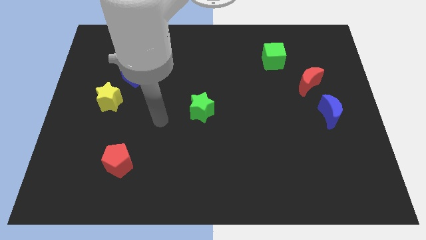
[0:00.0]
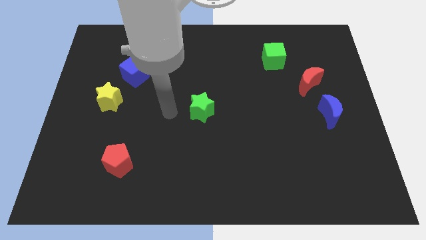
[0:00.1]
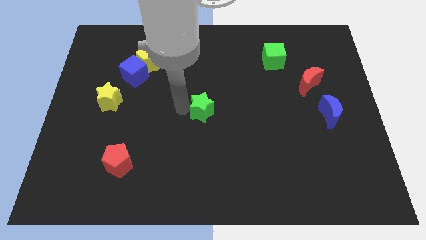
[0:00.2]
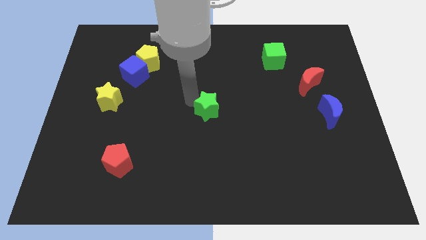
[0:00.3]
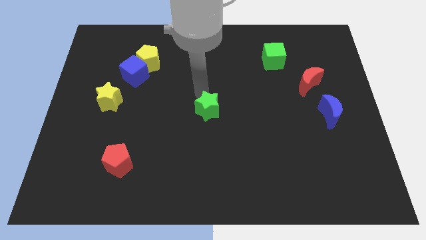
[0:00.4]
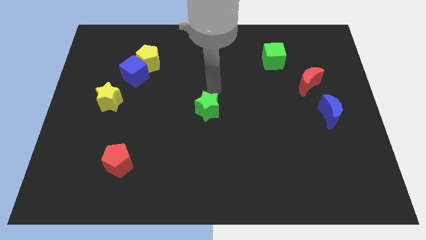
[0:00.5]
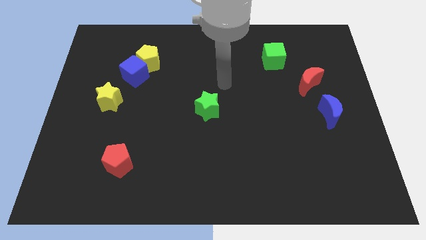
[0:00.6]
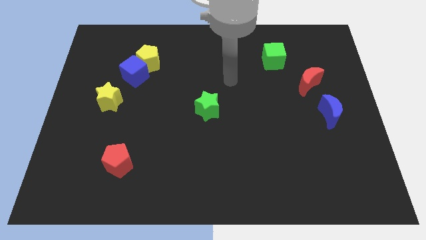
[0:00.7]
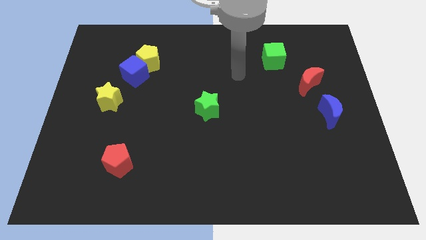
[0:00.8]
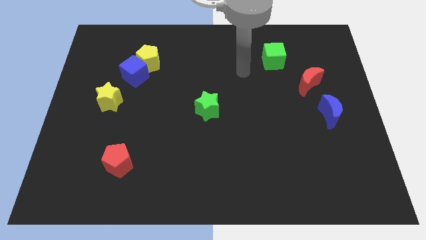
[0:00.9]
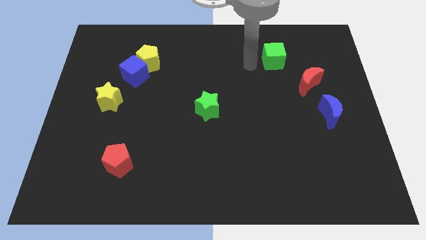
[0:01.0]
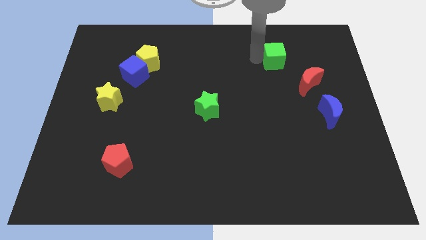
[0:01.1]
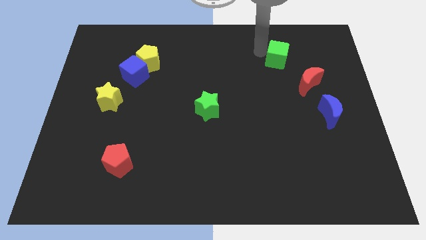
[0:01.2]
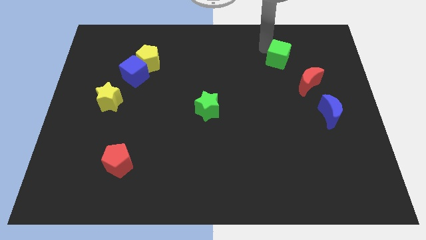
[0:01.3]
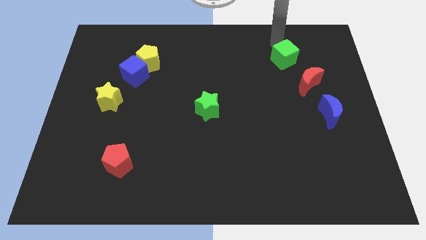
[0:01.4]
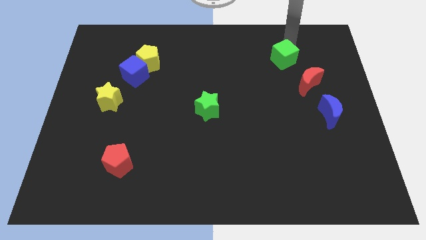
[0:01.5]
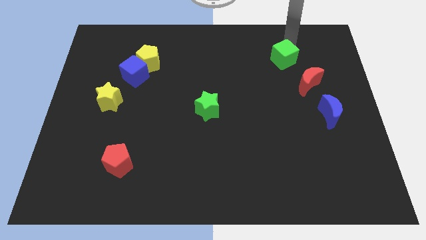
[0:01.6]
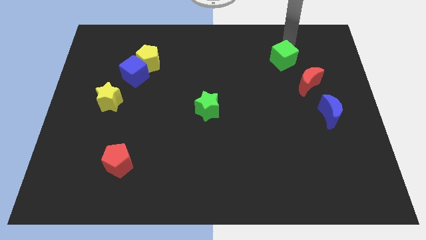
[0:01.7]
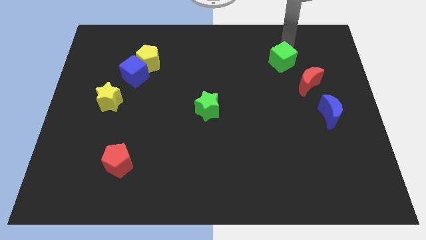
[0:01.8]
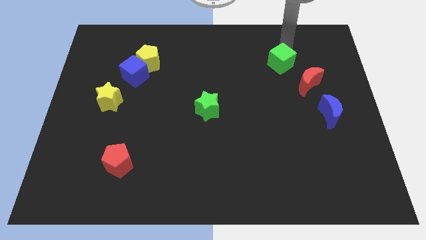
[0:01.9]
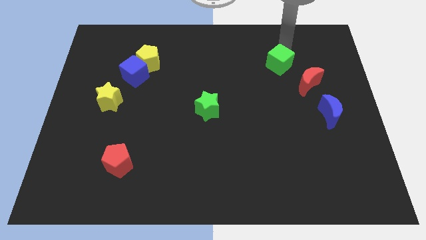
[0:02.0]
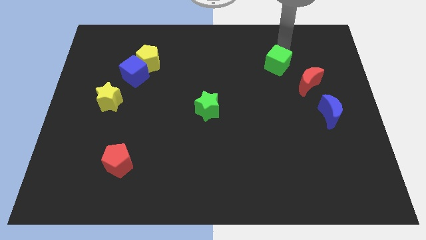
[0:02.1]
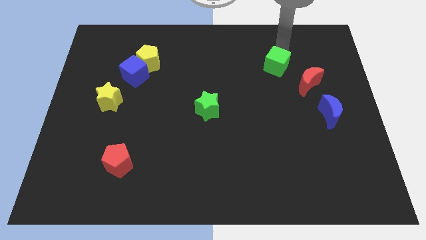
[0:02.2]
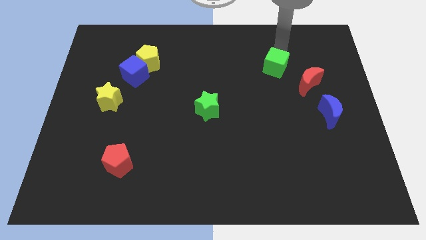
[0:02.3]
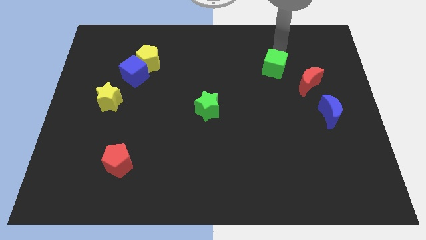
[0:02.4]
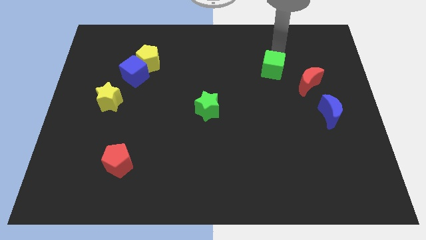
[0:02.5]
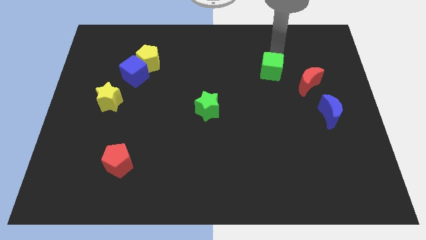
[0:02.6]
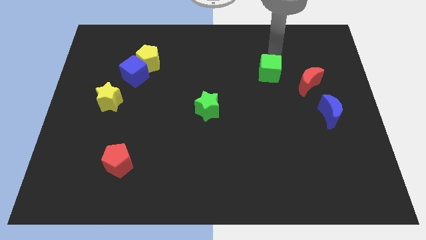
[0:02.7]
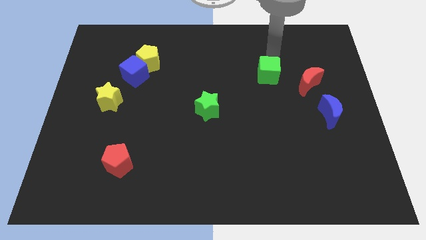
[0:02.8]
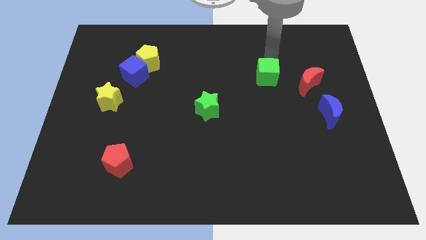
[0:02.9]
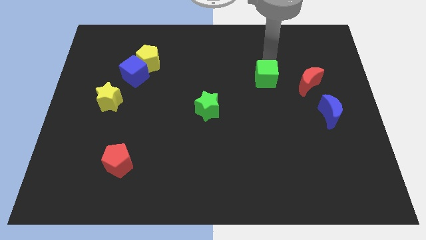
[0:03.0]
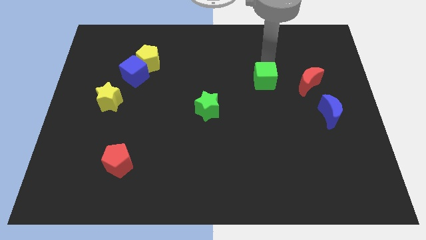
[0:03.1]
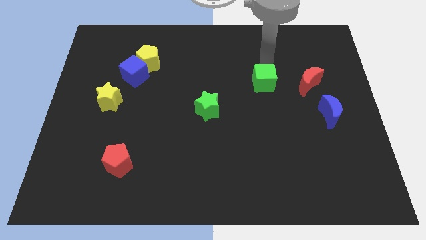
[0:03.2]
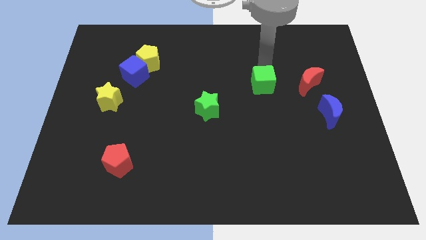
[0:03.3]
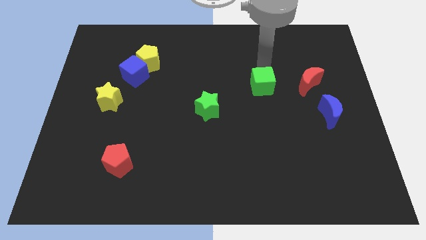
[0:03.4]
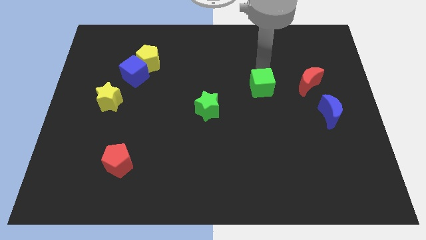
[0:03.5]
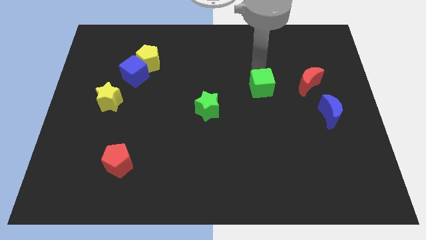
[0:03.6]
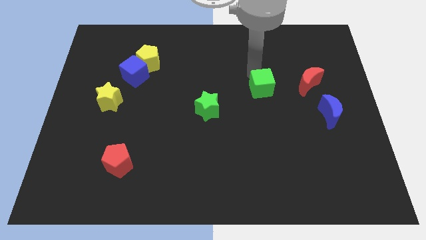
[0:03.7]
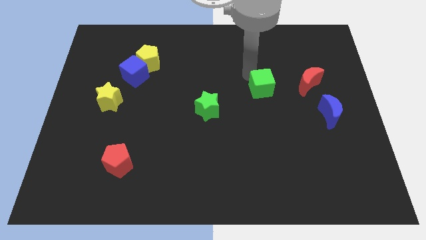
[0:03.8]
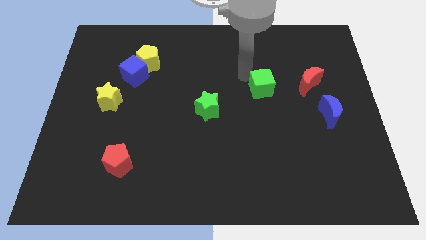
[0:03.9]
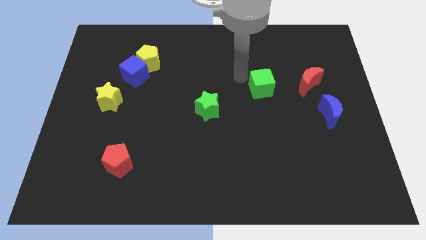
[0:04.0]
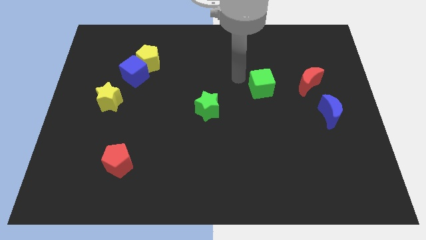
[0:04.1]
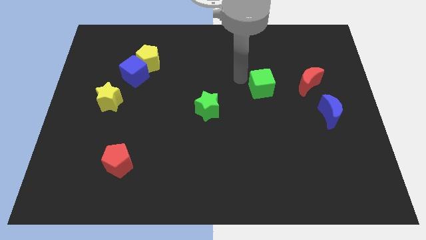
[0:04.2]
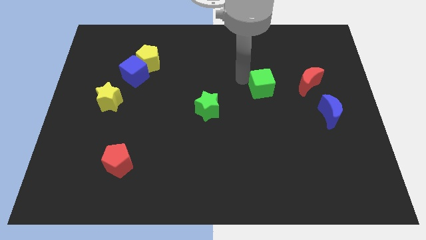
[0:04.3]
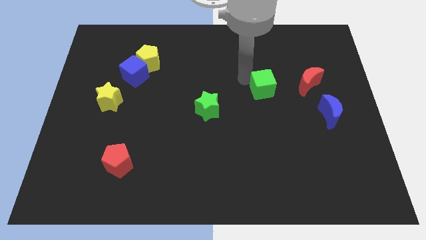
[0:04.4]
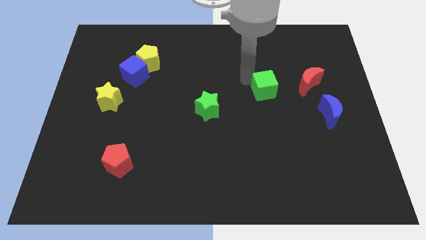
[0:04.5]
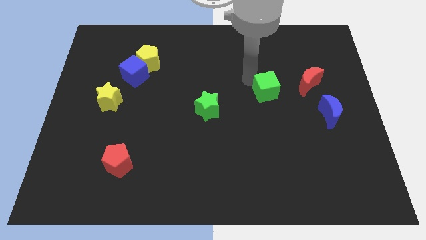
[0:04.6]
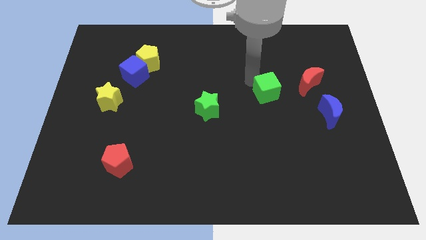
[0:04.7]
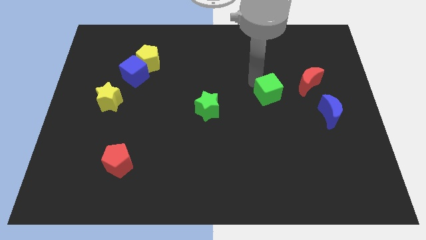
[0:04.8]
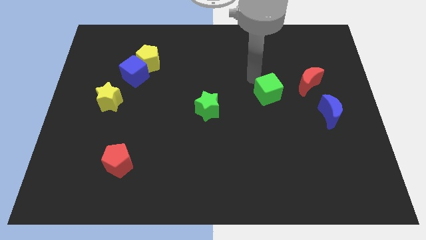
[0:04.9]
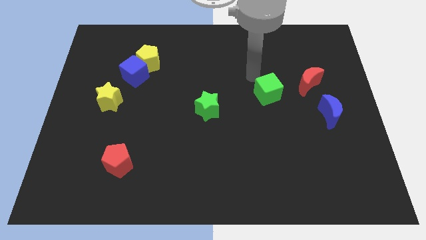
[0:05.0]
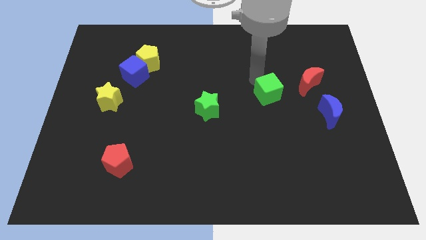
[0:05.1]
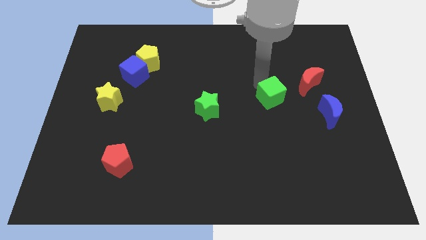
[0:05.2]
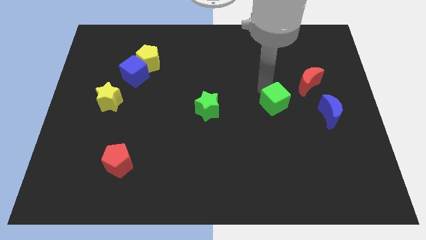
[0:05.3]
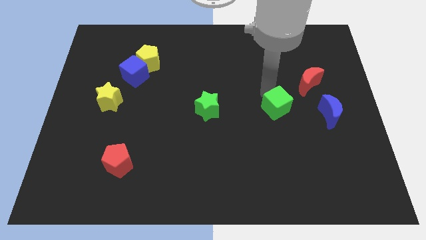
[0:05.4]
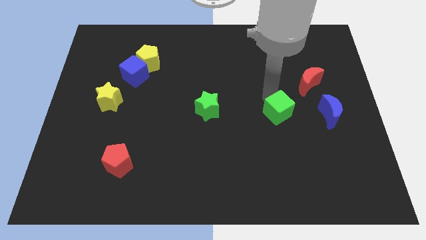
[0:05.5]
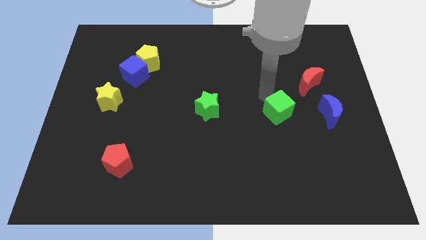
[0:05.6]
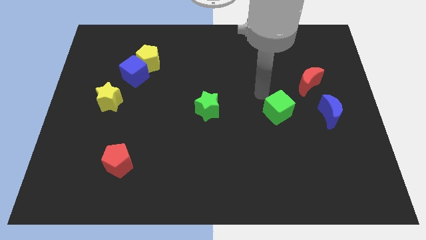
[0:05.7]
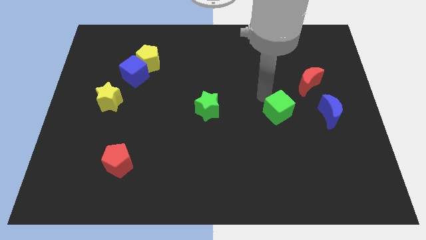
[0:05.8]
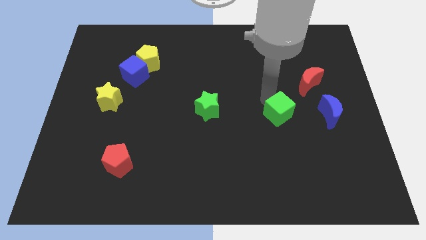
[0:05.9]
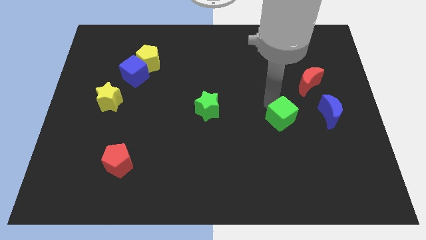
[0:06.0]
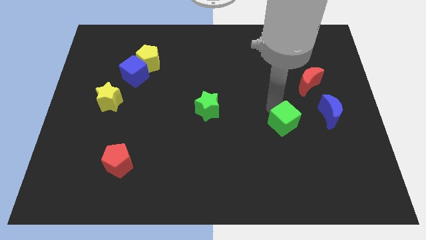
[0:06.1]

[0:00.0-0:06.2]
slide the green cube down

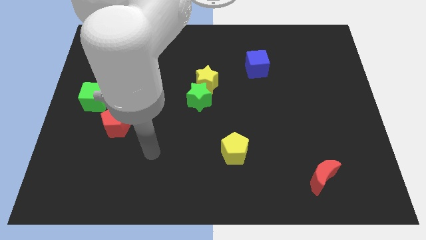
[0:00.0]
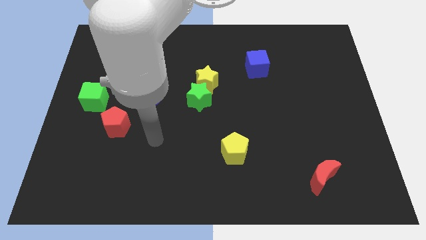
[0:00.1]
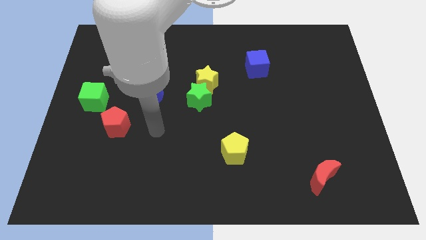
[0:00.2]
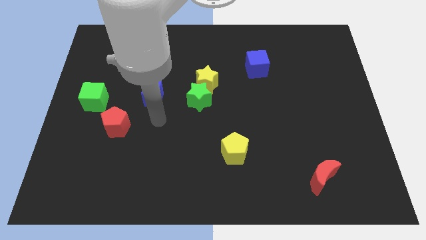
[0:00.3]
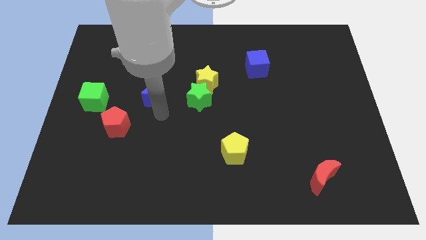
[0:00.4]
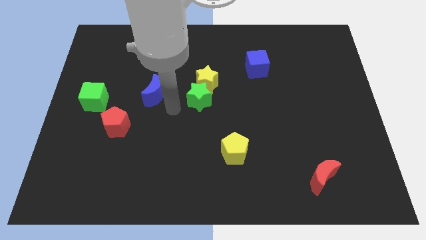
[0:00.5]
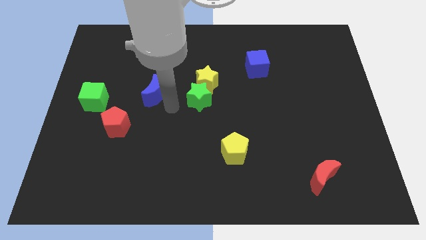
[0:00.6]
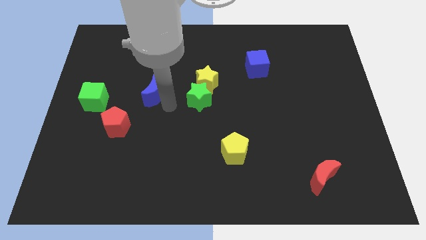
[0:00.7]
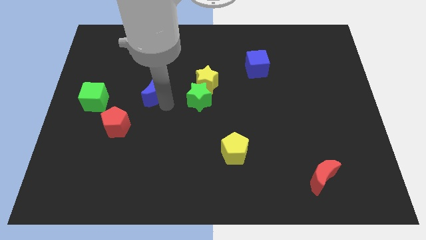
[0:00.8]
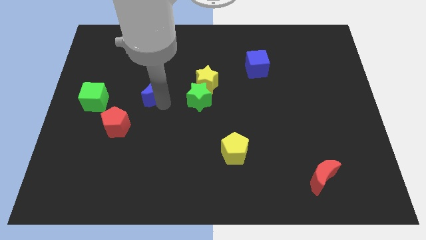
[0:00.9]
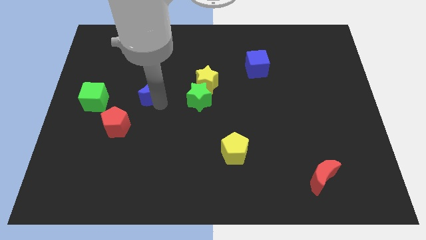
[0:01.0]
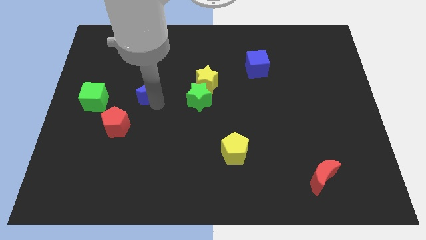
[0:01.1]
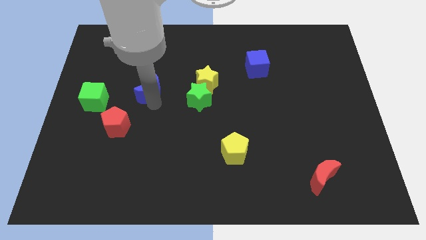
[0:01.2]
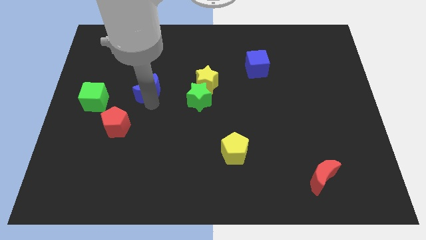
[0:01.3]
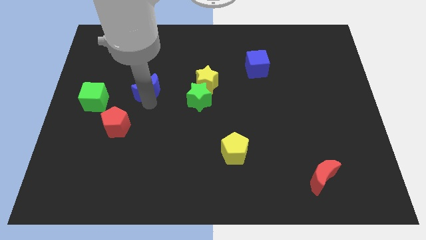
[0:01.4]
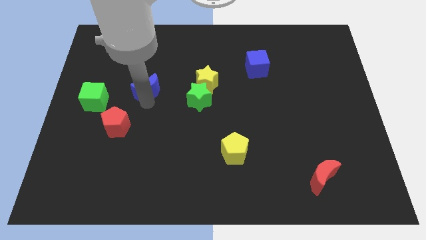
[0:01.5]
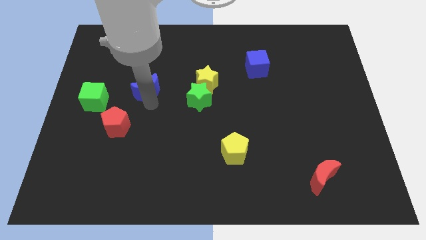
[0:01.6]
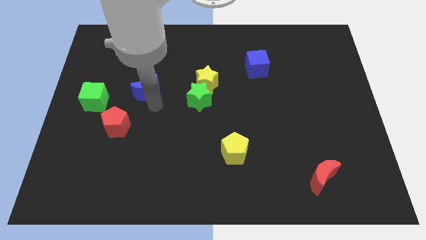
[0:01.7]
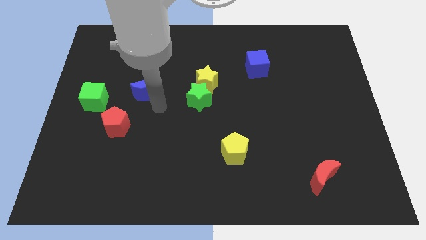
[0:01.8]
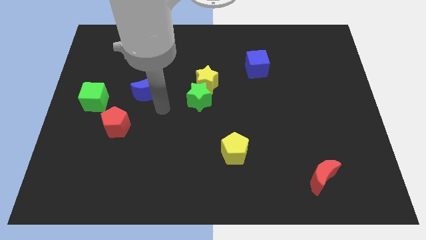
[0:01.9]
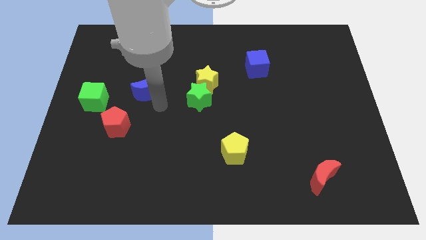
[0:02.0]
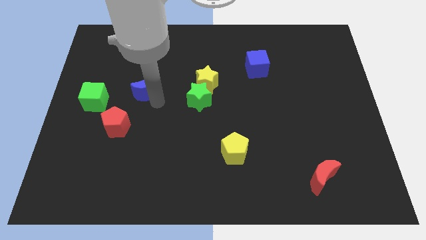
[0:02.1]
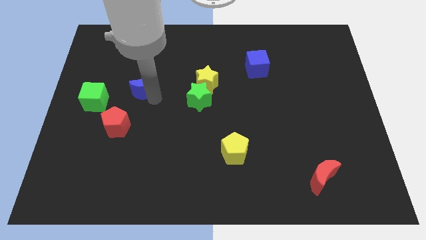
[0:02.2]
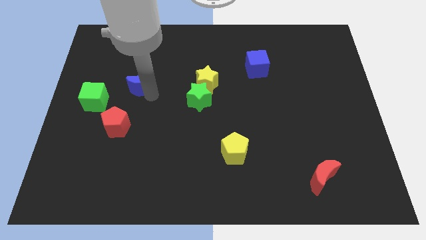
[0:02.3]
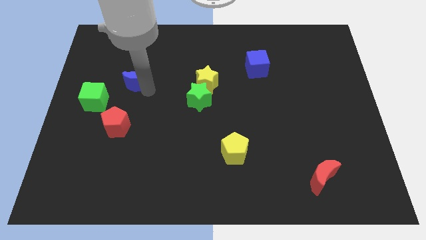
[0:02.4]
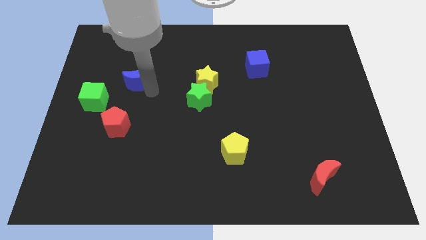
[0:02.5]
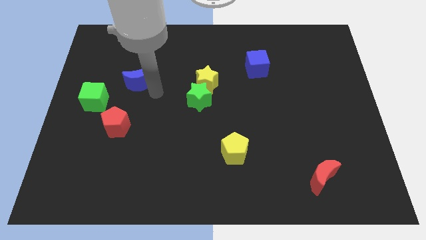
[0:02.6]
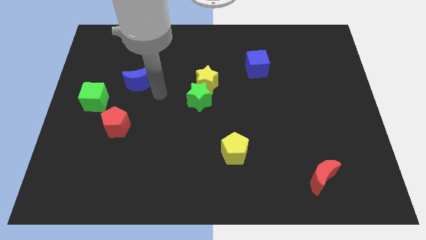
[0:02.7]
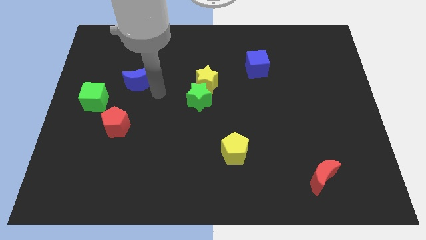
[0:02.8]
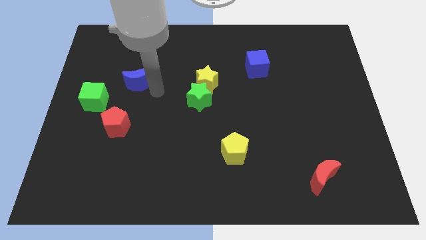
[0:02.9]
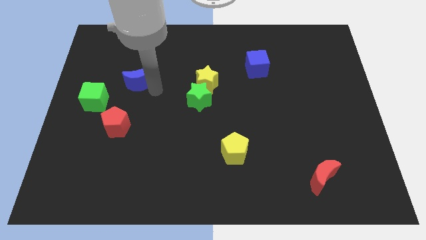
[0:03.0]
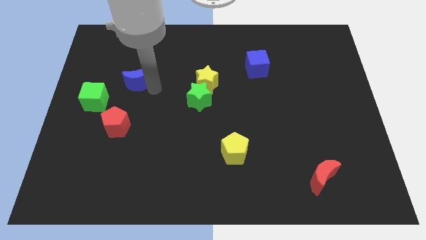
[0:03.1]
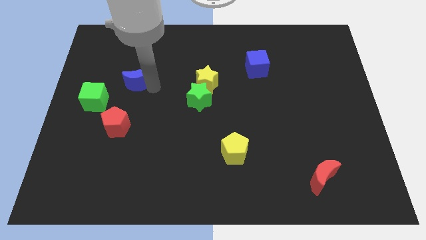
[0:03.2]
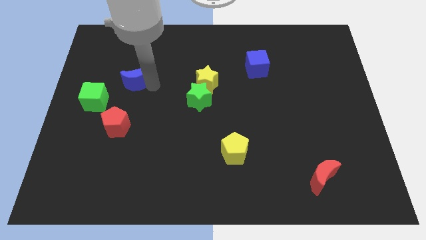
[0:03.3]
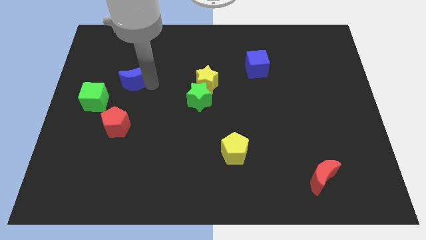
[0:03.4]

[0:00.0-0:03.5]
slightly slide the blue moon upwards and then to the left
